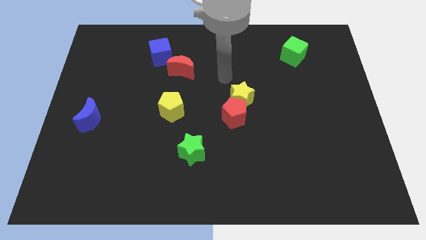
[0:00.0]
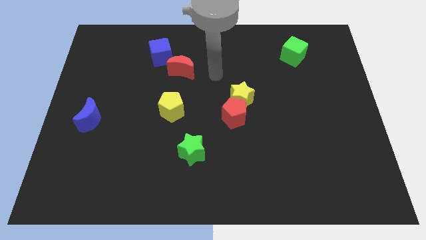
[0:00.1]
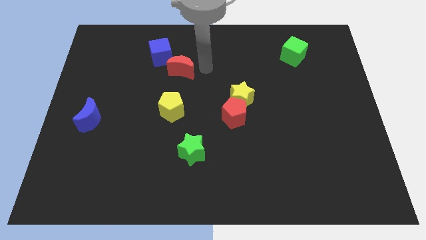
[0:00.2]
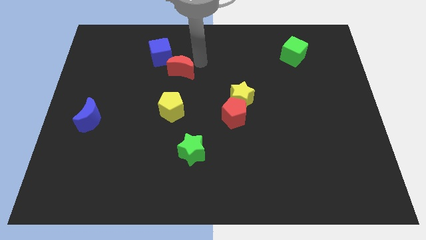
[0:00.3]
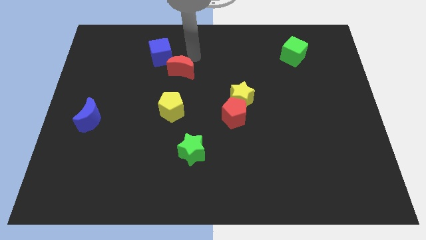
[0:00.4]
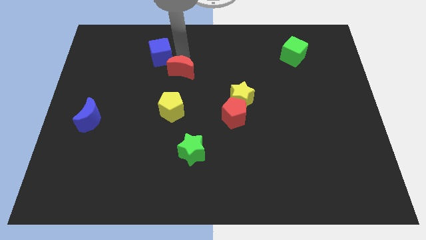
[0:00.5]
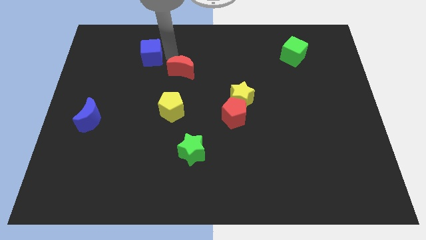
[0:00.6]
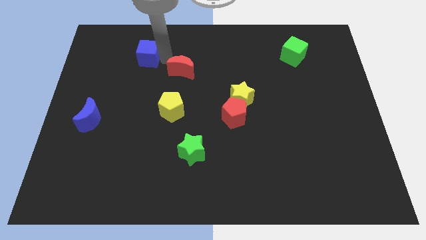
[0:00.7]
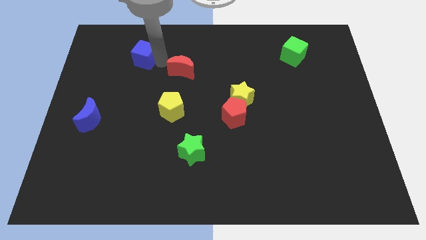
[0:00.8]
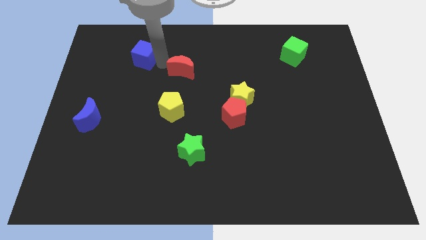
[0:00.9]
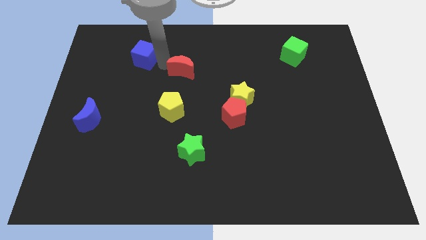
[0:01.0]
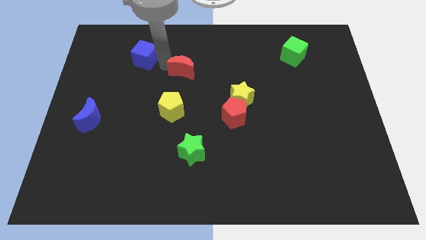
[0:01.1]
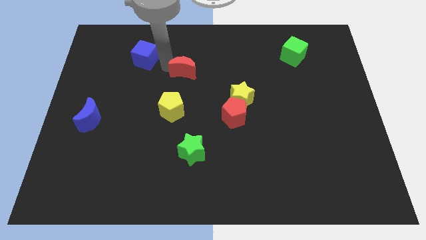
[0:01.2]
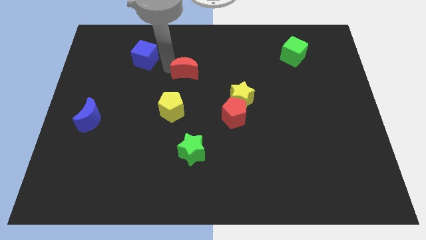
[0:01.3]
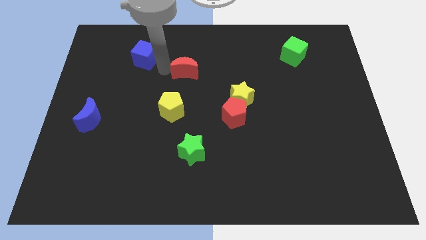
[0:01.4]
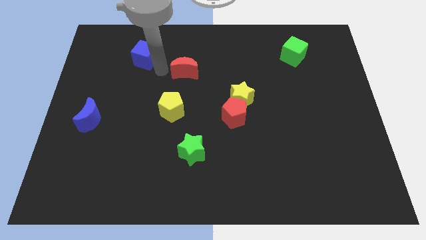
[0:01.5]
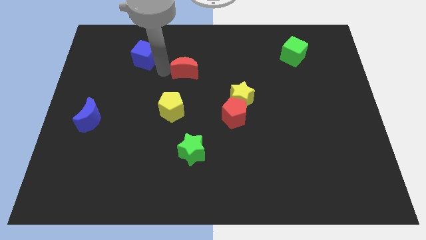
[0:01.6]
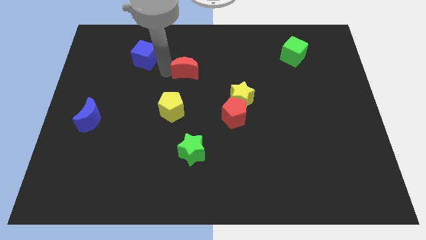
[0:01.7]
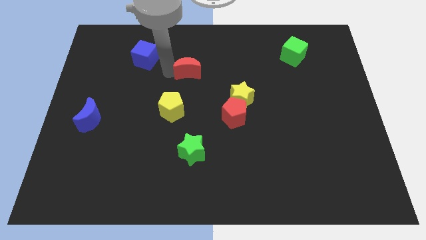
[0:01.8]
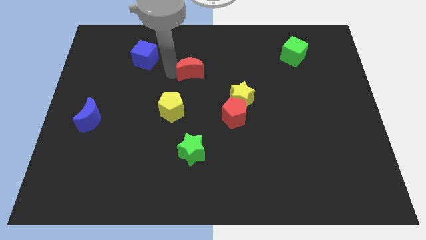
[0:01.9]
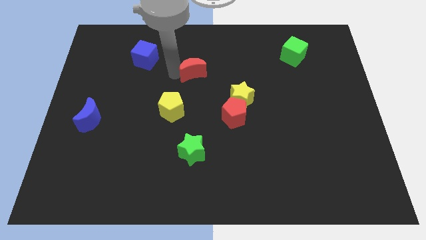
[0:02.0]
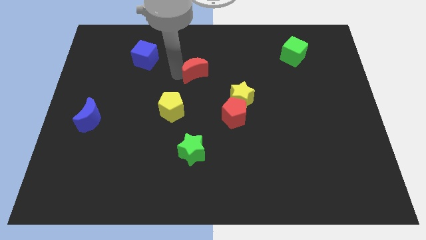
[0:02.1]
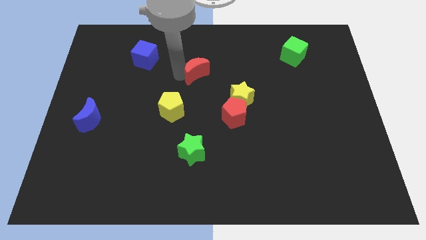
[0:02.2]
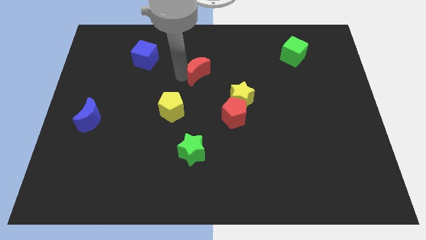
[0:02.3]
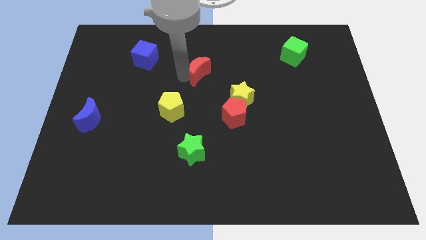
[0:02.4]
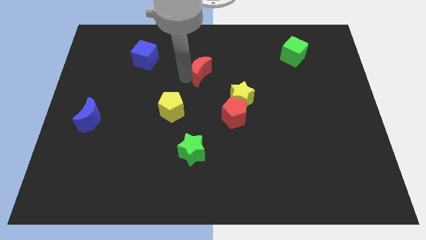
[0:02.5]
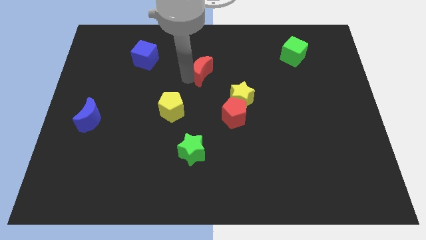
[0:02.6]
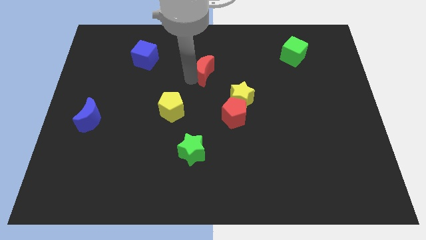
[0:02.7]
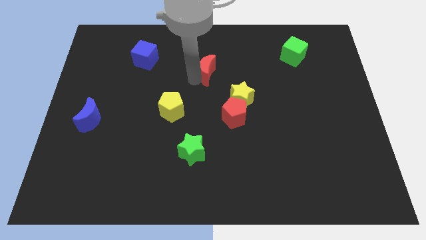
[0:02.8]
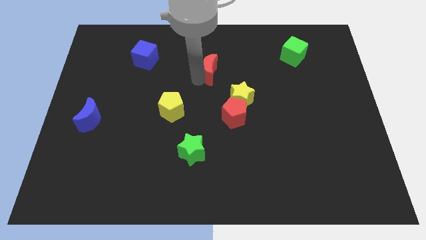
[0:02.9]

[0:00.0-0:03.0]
move the red moon to the right slightly

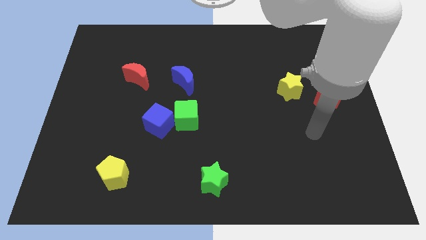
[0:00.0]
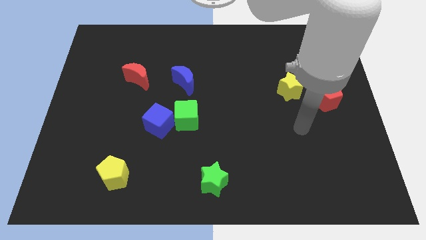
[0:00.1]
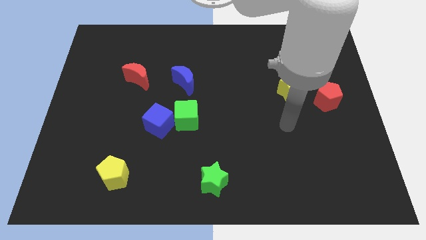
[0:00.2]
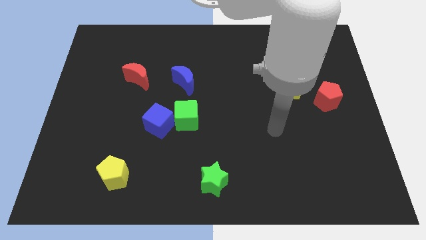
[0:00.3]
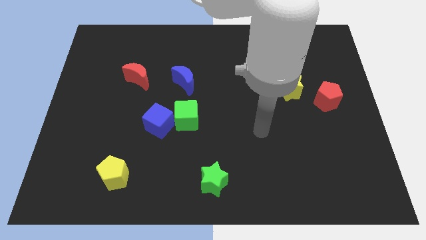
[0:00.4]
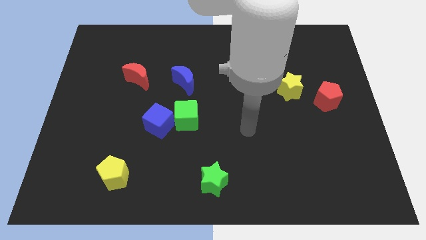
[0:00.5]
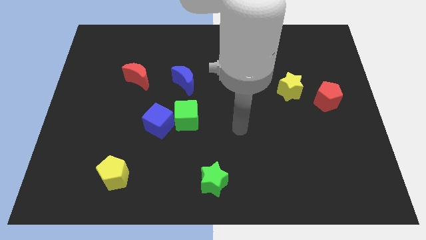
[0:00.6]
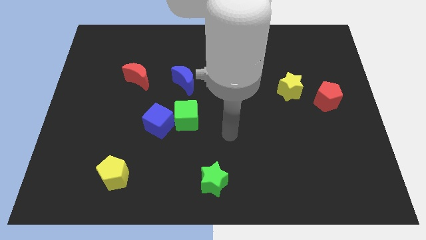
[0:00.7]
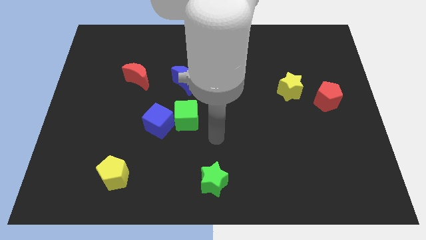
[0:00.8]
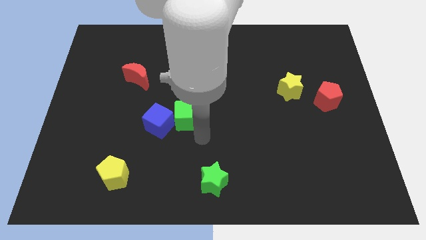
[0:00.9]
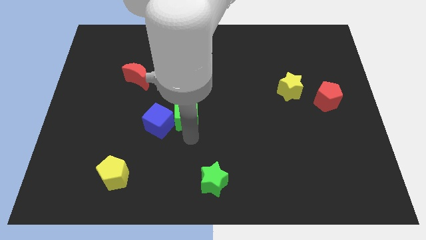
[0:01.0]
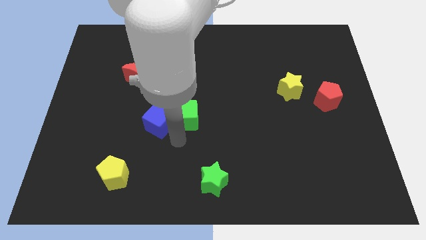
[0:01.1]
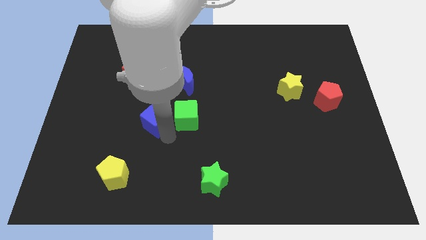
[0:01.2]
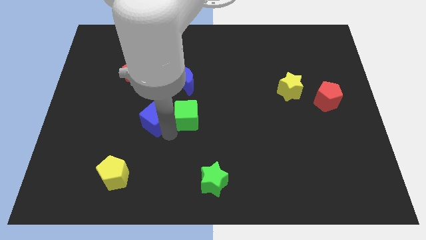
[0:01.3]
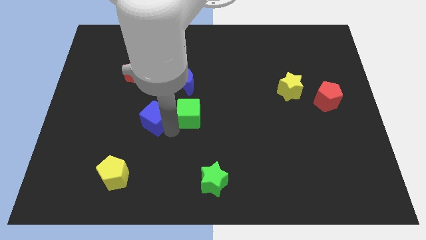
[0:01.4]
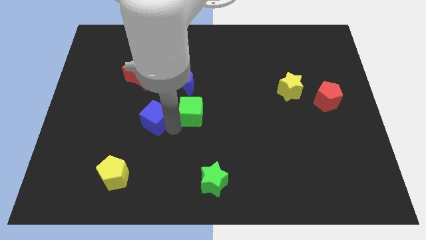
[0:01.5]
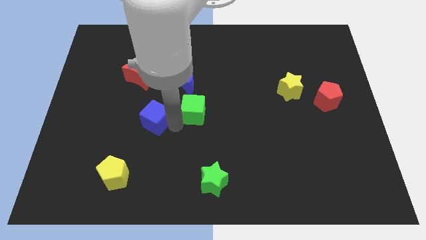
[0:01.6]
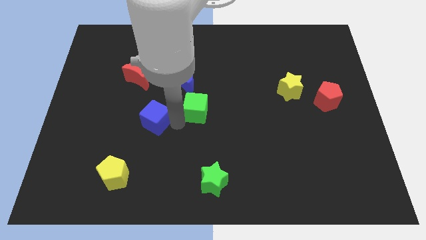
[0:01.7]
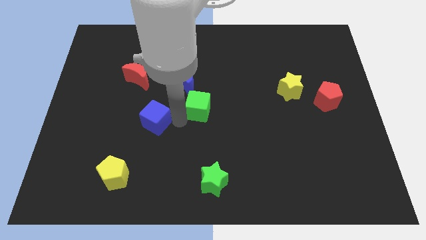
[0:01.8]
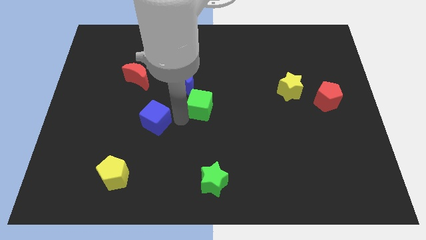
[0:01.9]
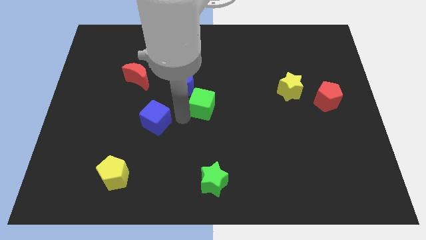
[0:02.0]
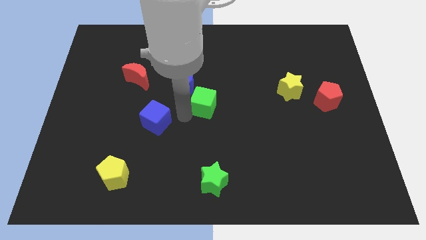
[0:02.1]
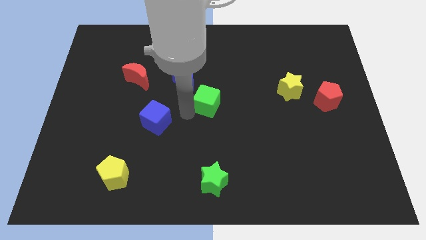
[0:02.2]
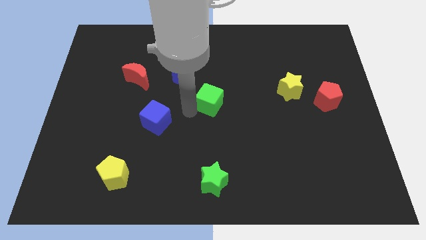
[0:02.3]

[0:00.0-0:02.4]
push the green cube up and then right a bit

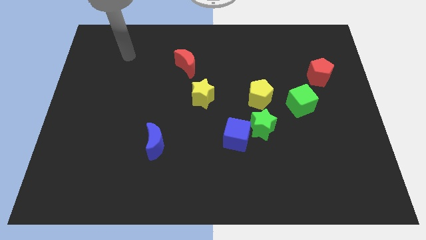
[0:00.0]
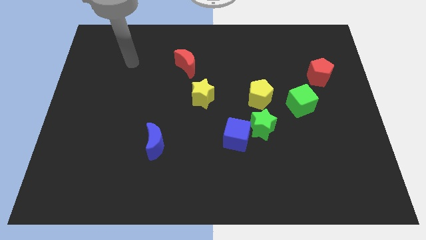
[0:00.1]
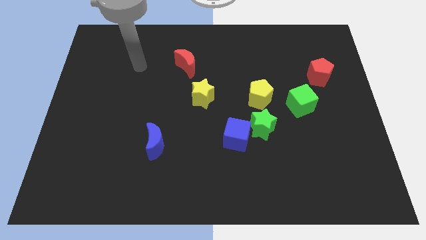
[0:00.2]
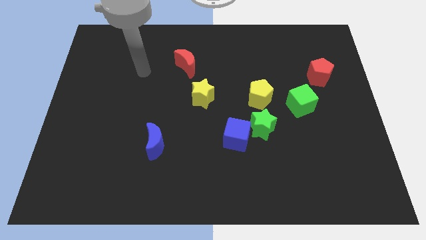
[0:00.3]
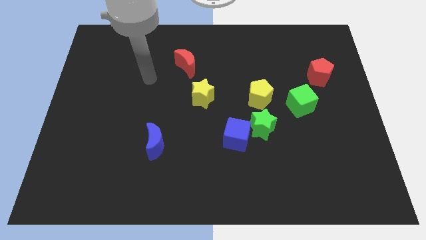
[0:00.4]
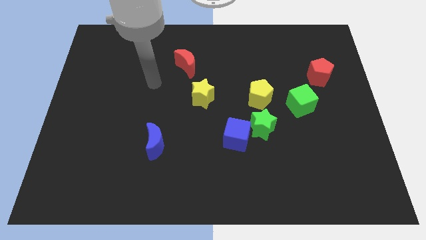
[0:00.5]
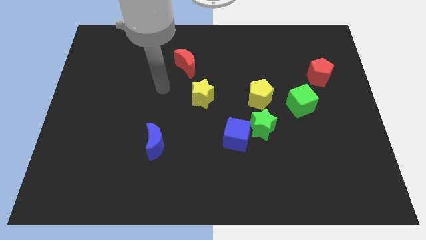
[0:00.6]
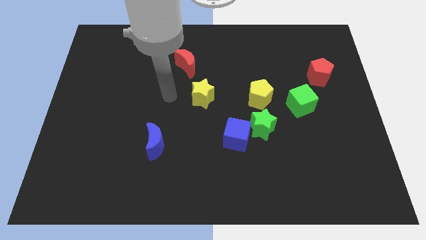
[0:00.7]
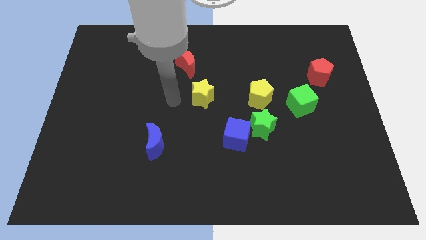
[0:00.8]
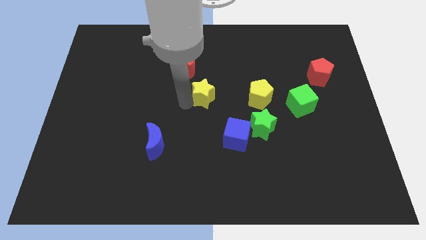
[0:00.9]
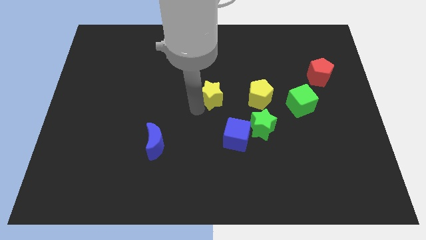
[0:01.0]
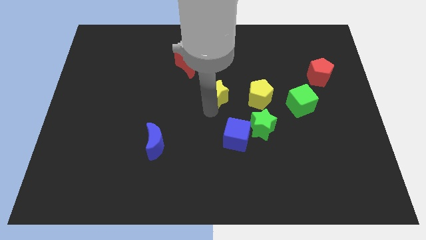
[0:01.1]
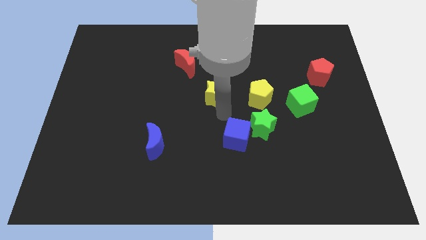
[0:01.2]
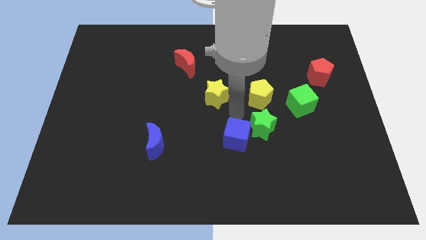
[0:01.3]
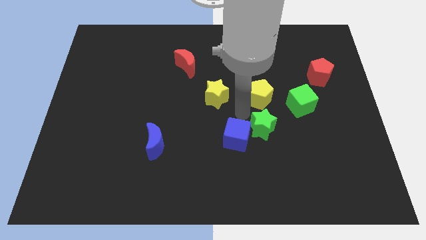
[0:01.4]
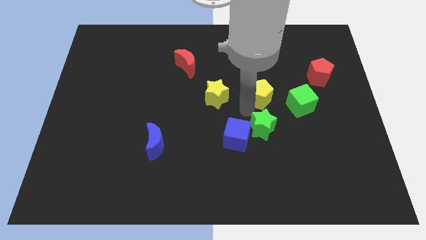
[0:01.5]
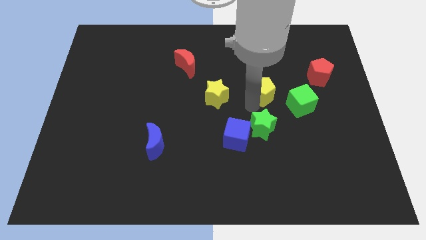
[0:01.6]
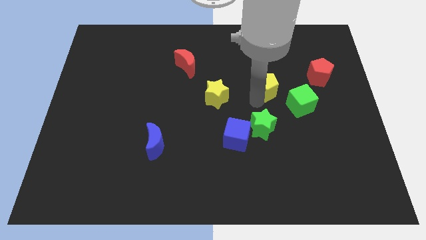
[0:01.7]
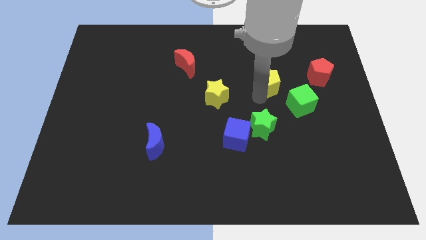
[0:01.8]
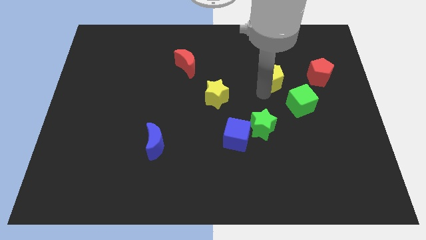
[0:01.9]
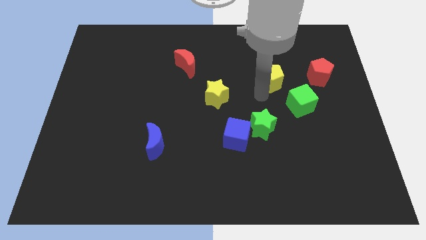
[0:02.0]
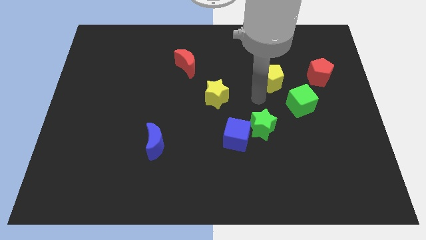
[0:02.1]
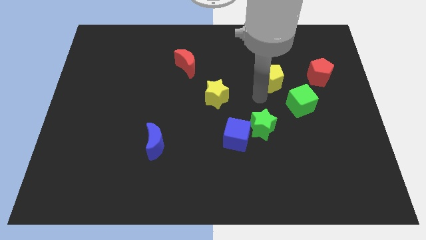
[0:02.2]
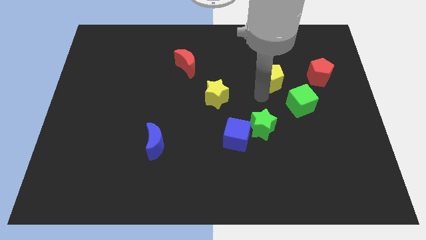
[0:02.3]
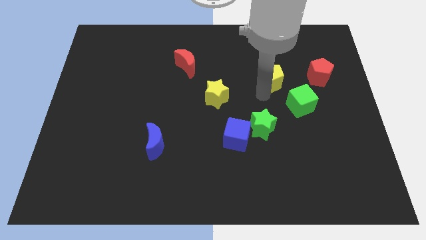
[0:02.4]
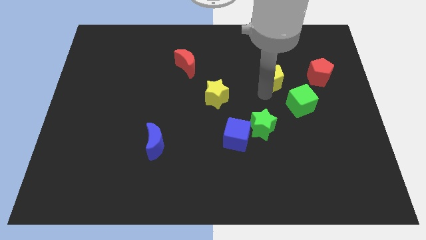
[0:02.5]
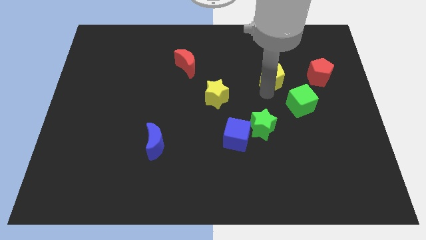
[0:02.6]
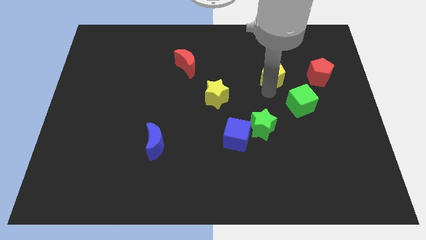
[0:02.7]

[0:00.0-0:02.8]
slightly slide the yellow pentagon up and to the right diagonally
